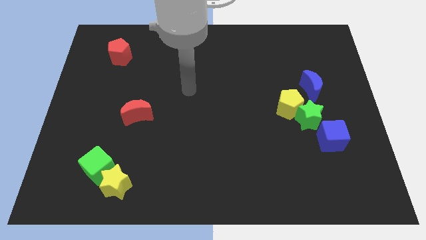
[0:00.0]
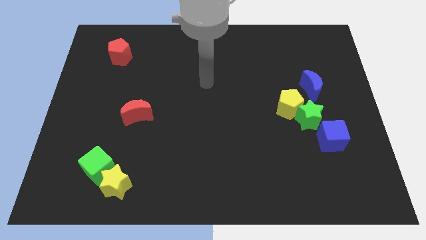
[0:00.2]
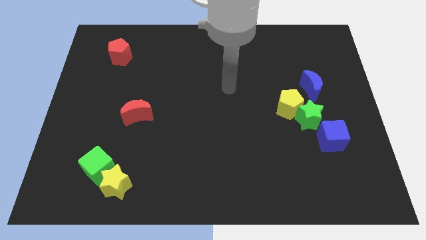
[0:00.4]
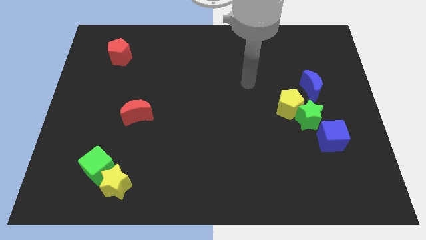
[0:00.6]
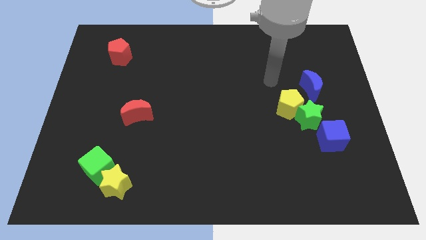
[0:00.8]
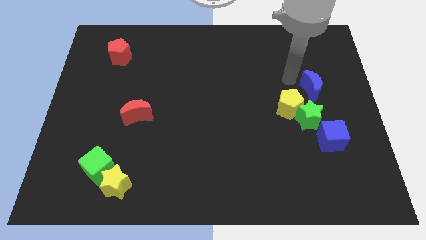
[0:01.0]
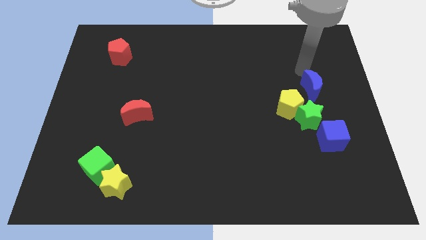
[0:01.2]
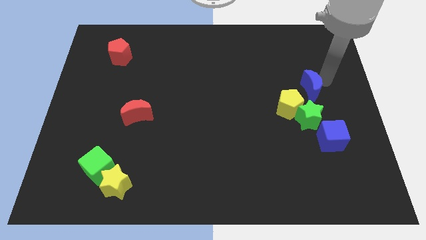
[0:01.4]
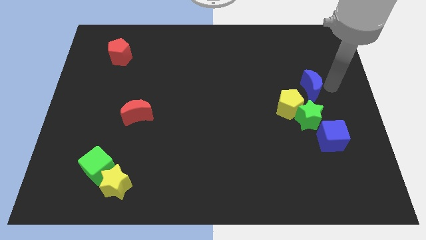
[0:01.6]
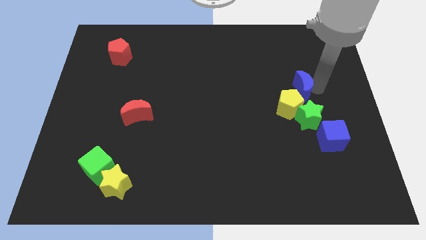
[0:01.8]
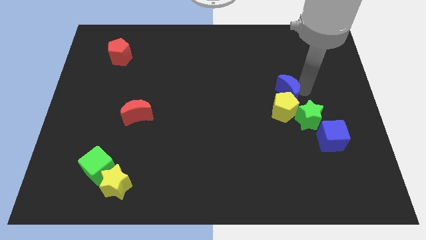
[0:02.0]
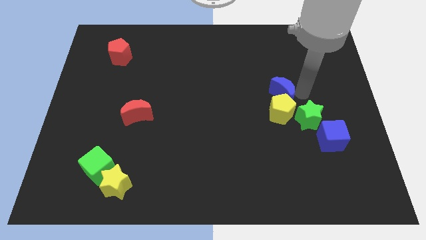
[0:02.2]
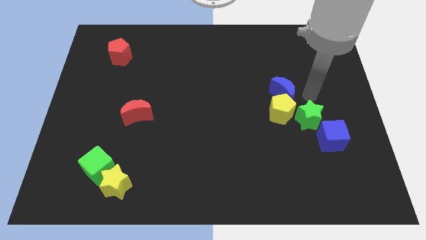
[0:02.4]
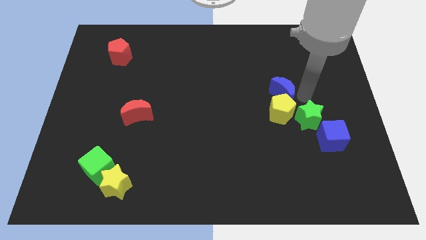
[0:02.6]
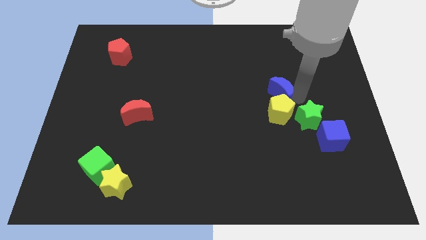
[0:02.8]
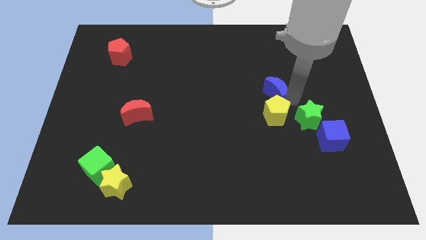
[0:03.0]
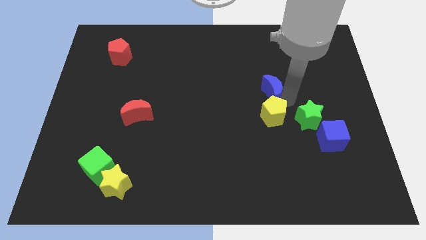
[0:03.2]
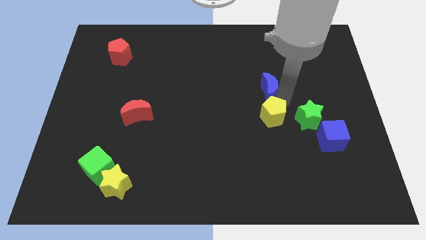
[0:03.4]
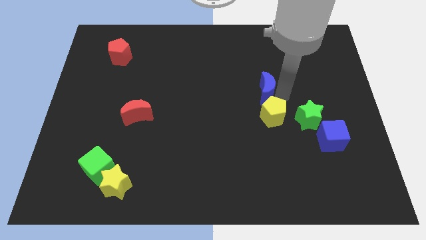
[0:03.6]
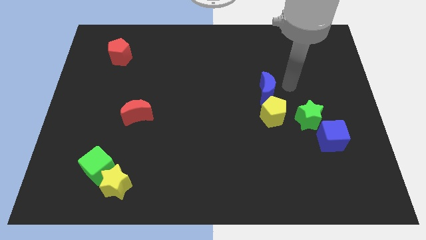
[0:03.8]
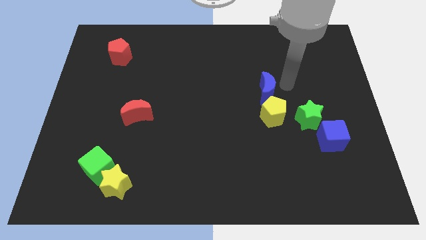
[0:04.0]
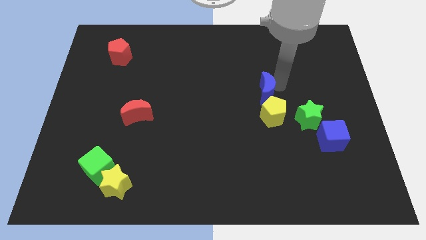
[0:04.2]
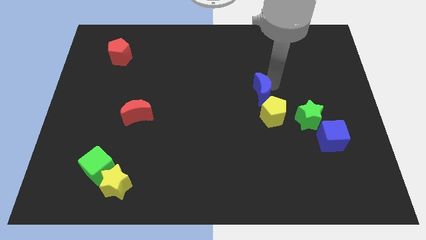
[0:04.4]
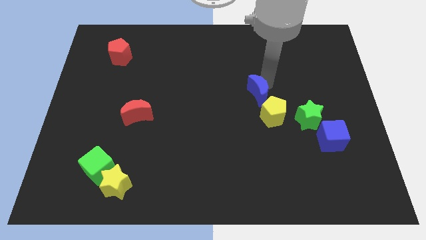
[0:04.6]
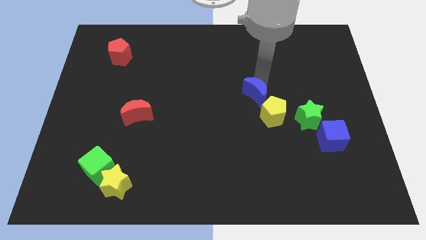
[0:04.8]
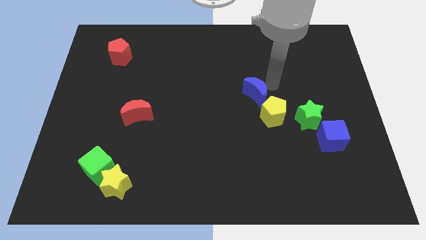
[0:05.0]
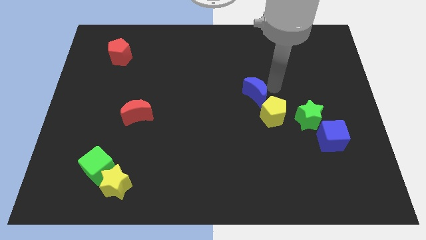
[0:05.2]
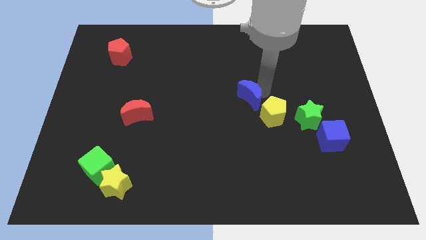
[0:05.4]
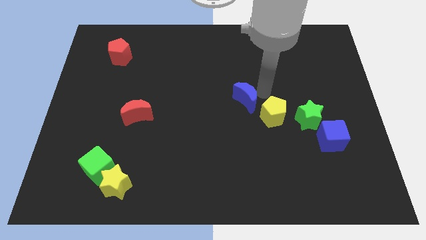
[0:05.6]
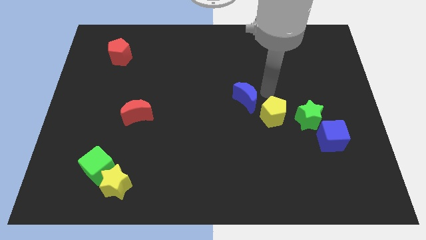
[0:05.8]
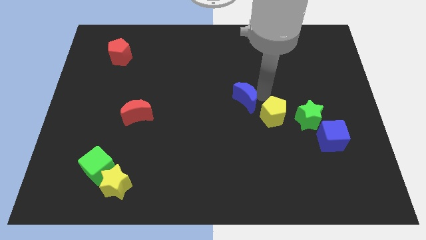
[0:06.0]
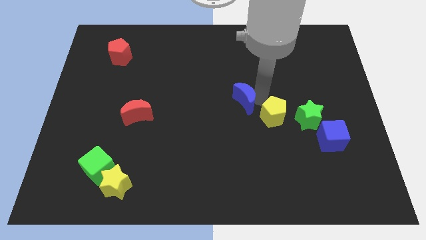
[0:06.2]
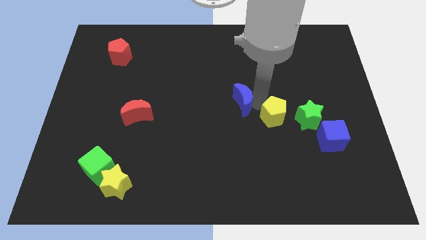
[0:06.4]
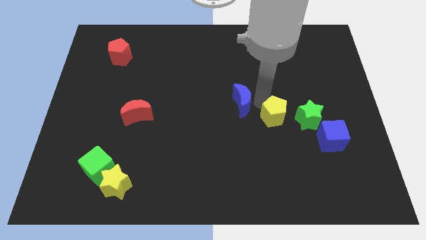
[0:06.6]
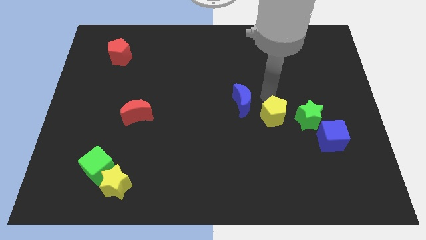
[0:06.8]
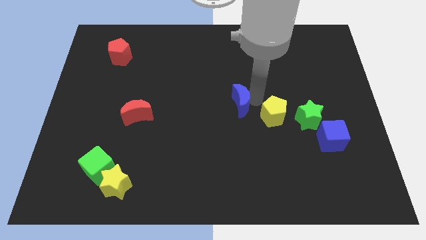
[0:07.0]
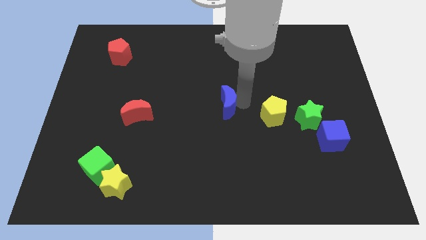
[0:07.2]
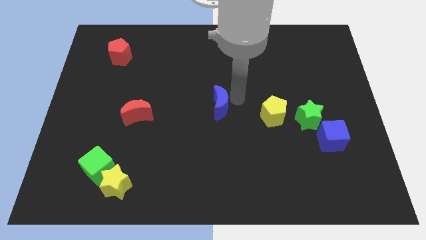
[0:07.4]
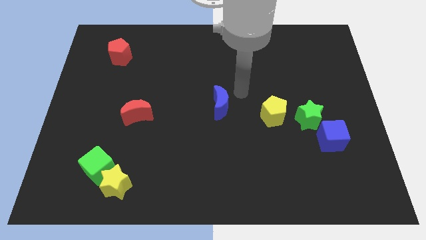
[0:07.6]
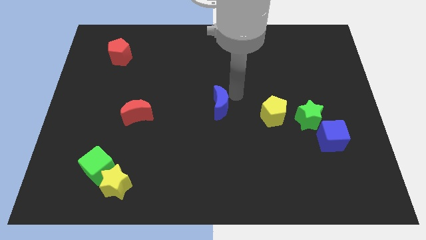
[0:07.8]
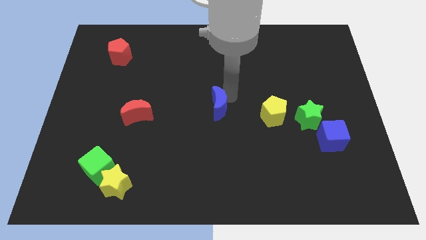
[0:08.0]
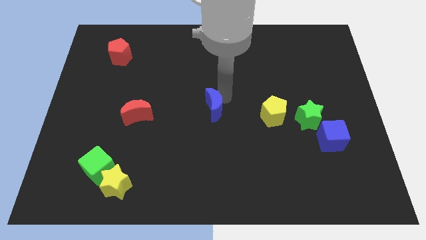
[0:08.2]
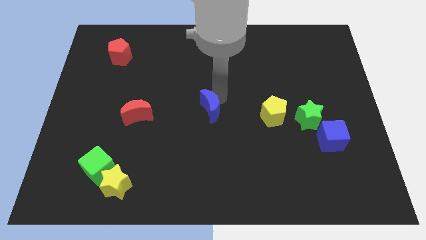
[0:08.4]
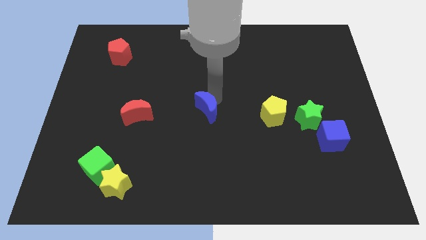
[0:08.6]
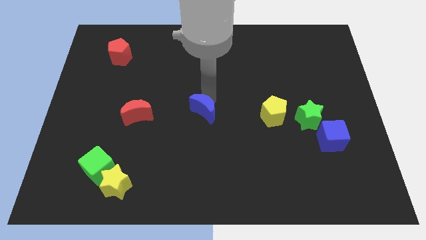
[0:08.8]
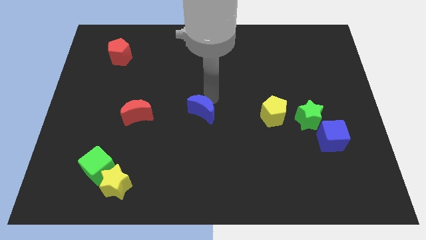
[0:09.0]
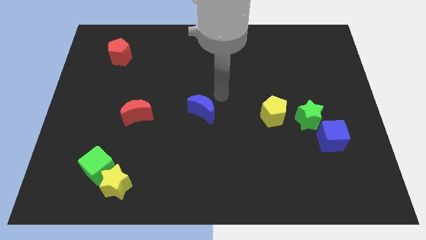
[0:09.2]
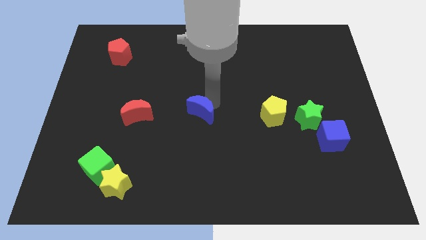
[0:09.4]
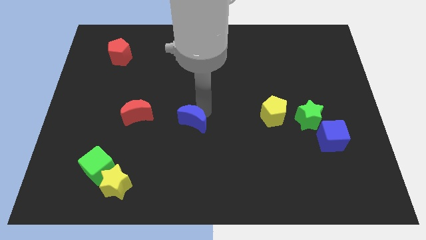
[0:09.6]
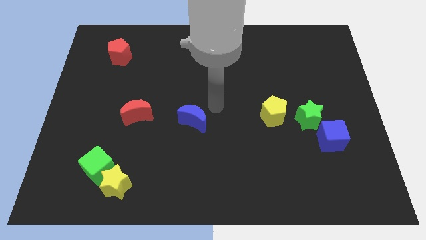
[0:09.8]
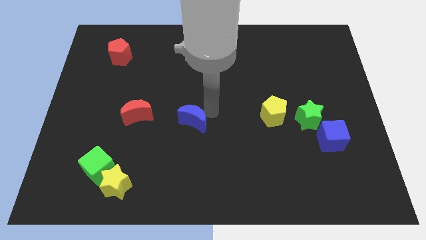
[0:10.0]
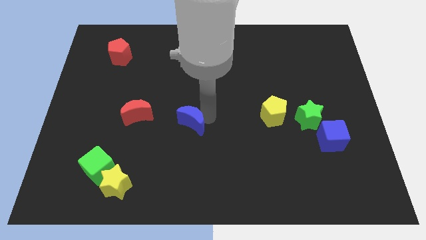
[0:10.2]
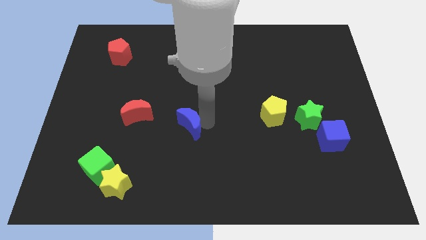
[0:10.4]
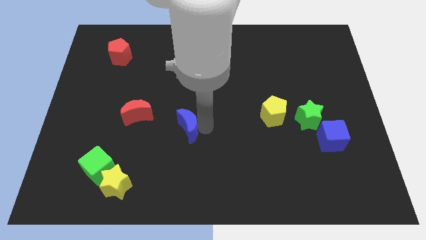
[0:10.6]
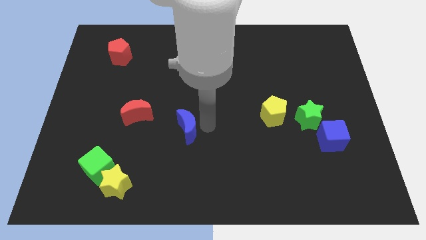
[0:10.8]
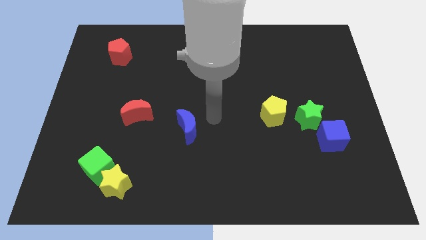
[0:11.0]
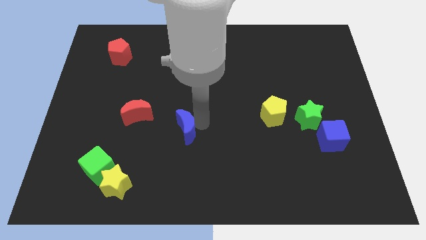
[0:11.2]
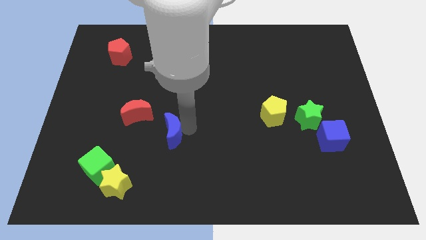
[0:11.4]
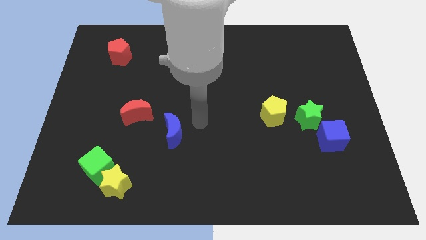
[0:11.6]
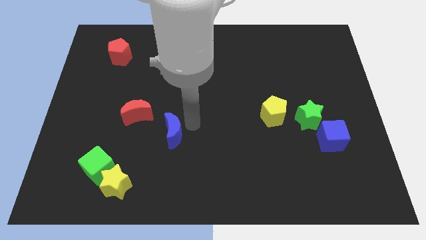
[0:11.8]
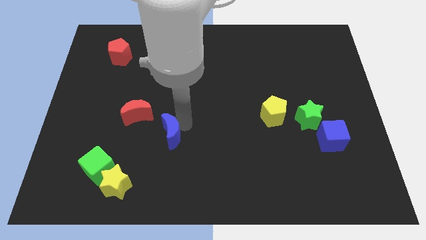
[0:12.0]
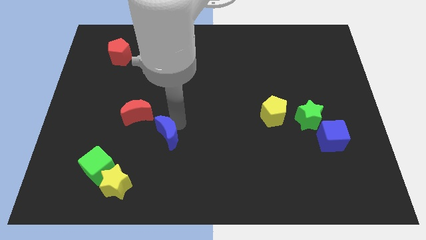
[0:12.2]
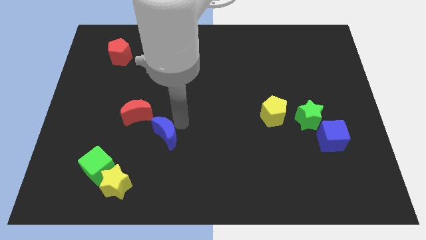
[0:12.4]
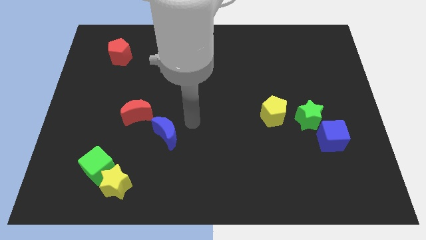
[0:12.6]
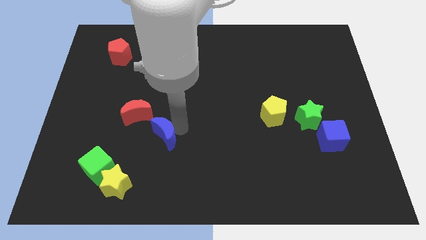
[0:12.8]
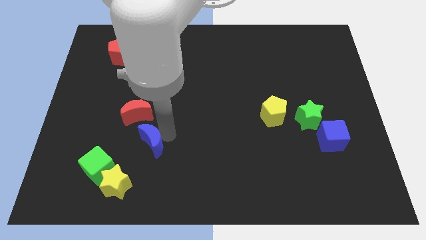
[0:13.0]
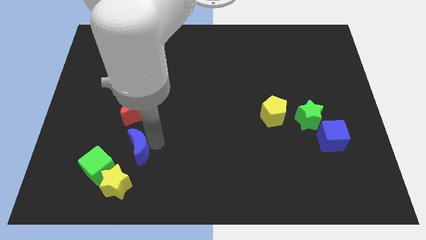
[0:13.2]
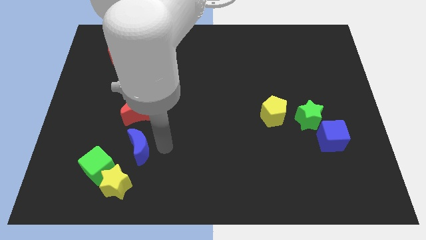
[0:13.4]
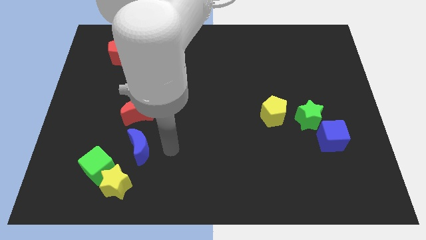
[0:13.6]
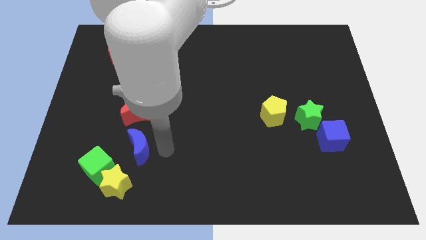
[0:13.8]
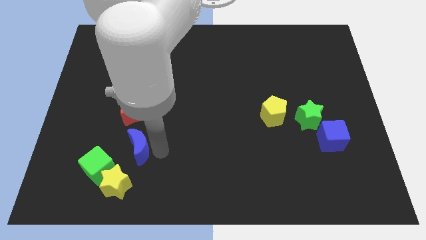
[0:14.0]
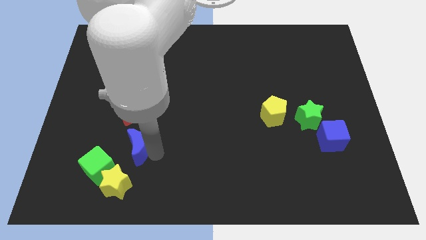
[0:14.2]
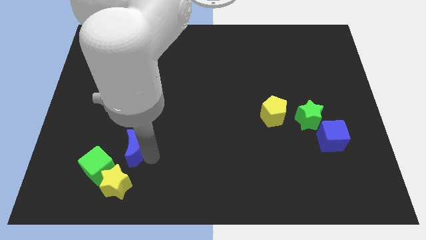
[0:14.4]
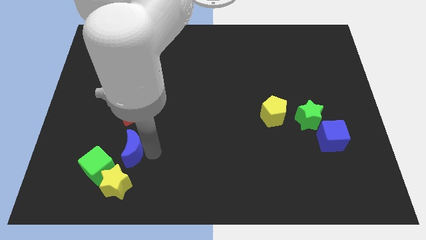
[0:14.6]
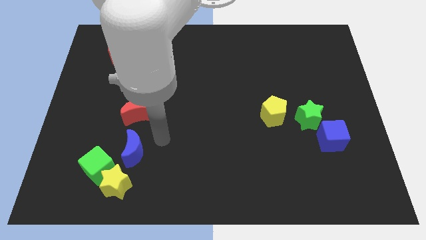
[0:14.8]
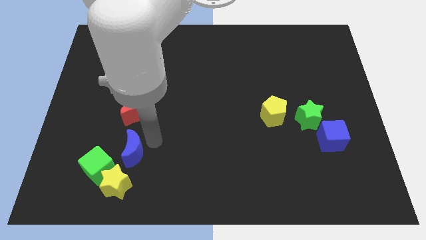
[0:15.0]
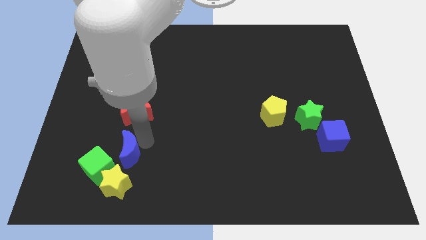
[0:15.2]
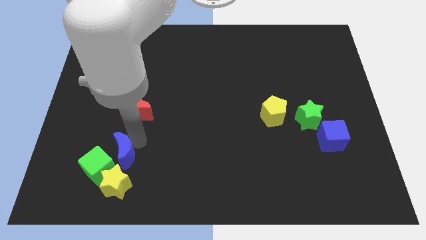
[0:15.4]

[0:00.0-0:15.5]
put the blue moon towards the green cube
